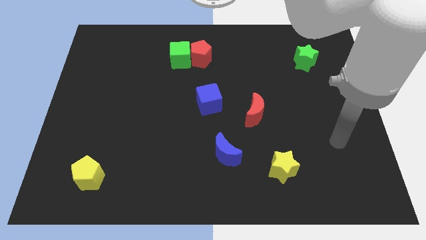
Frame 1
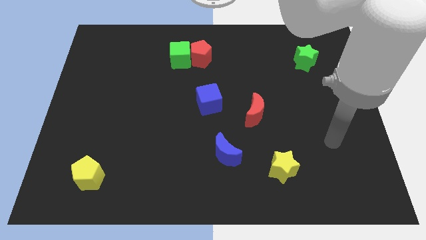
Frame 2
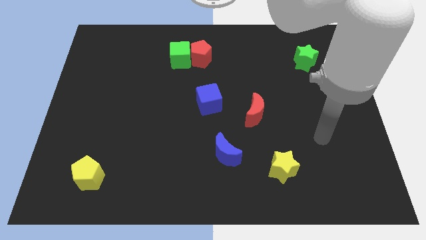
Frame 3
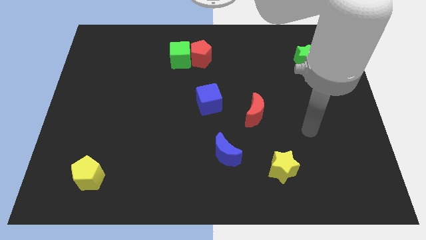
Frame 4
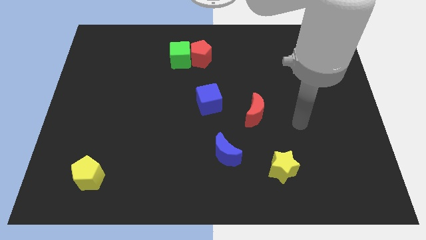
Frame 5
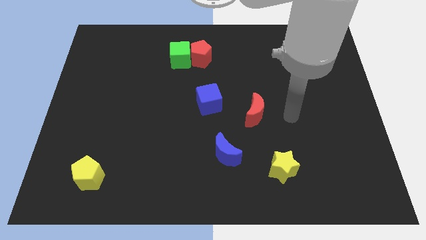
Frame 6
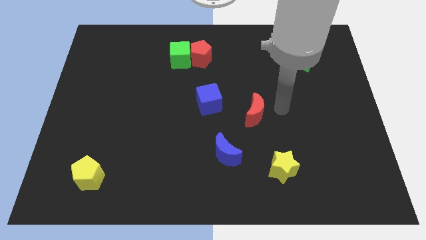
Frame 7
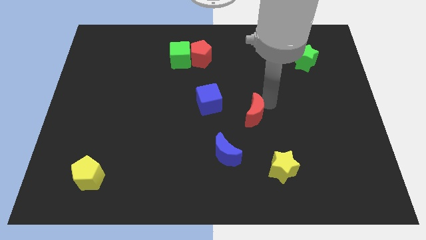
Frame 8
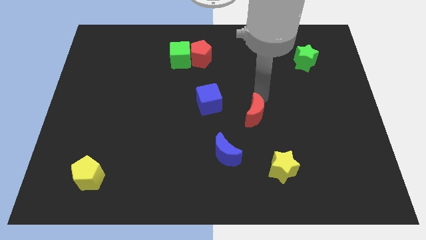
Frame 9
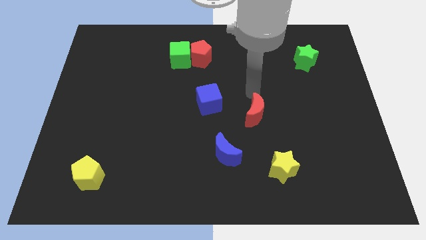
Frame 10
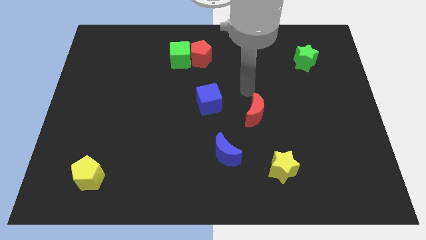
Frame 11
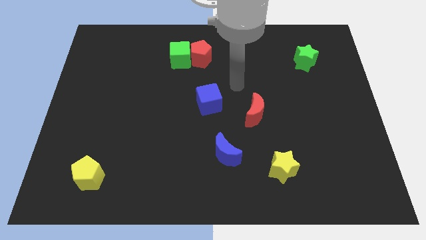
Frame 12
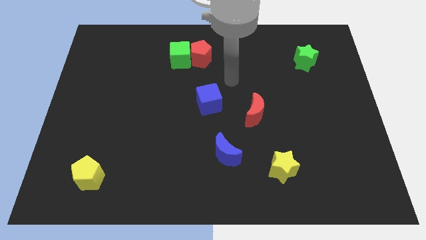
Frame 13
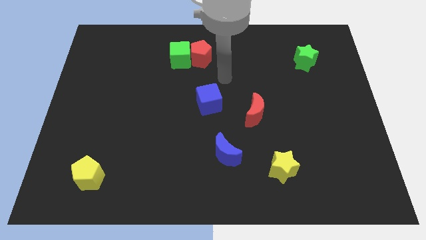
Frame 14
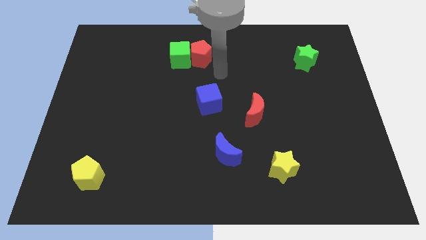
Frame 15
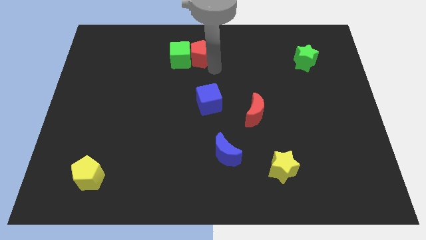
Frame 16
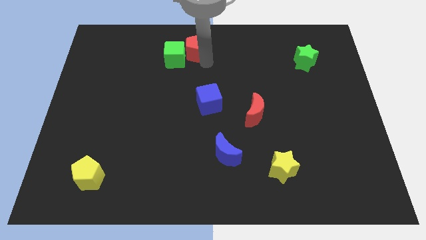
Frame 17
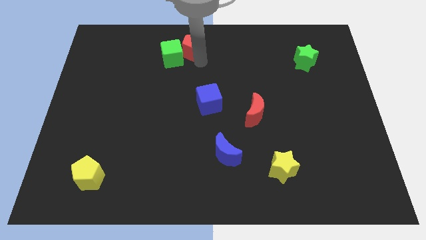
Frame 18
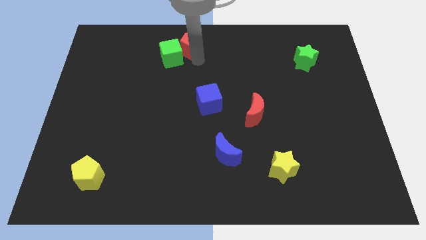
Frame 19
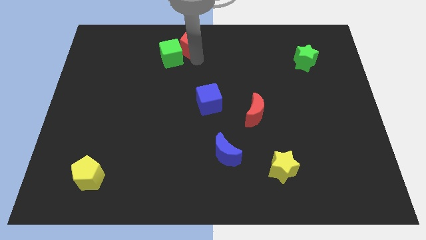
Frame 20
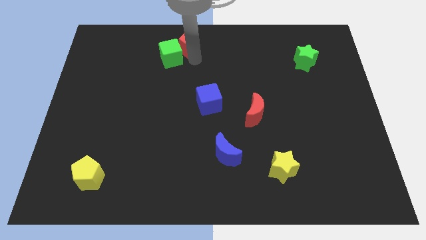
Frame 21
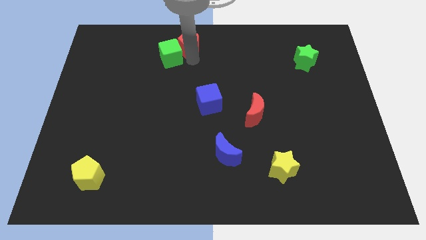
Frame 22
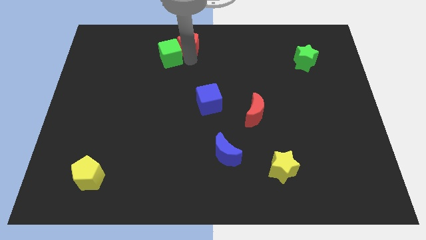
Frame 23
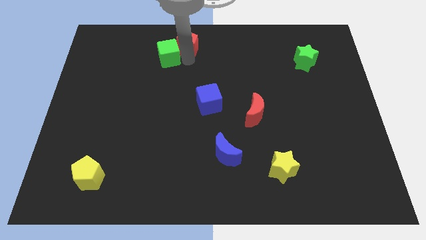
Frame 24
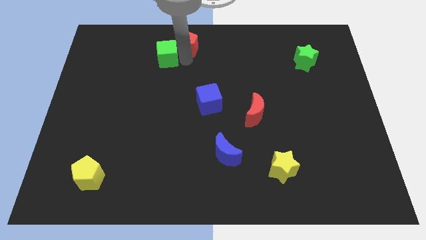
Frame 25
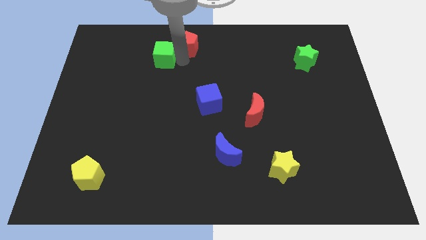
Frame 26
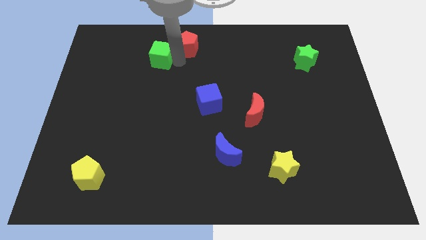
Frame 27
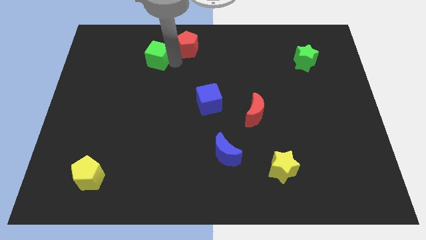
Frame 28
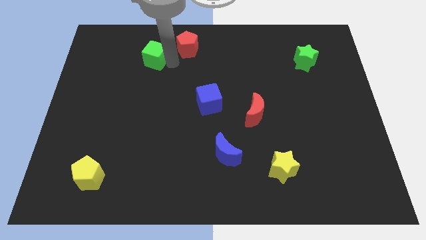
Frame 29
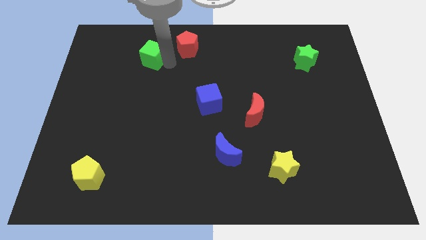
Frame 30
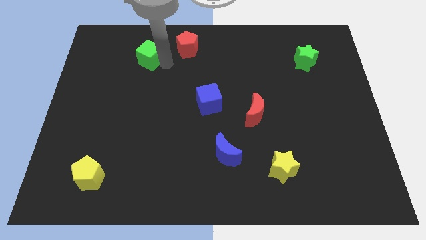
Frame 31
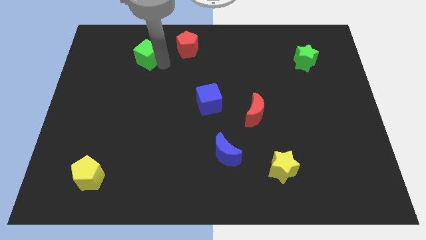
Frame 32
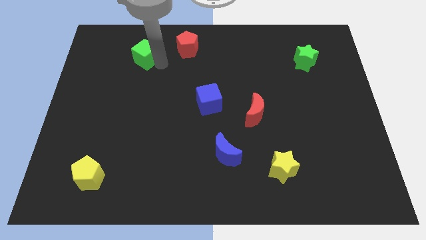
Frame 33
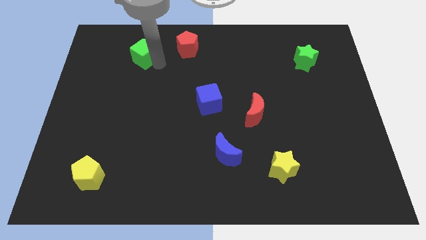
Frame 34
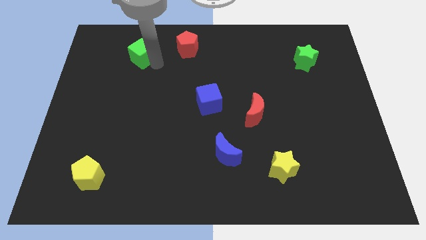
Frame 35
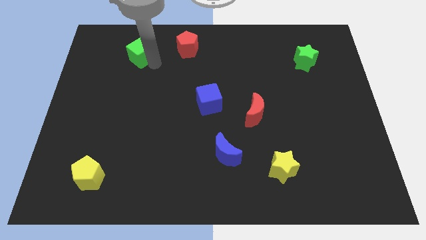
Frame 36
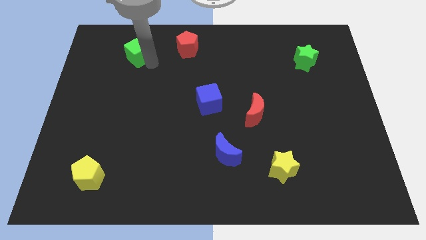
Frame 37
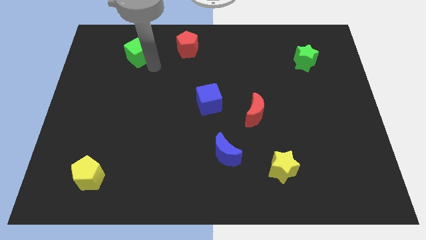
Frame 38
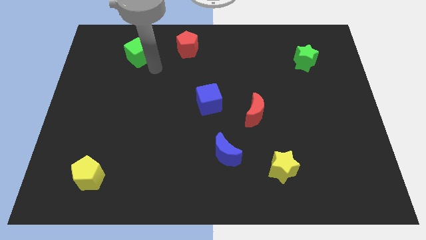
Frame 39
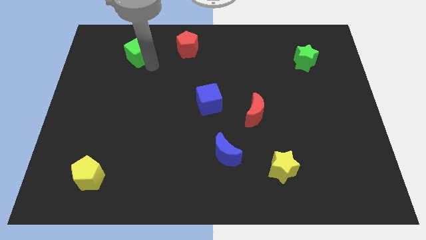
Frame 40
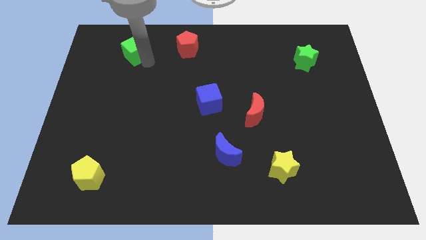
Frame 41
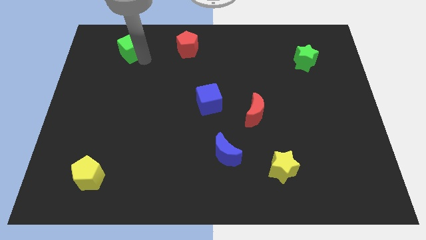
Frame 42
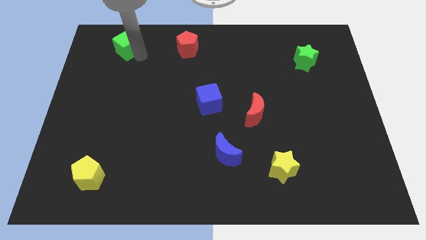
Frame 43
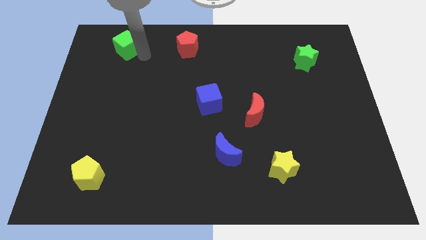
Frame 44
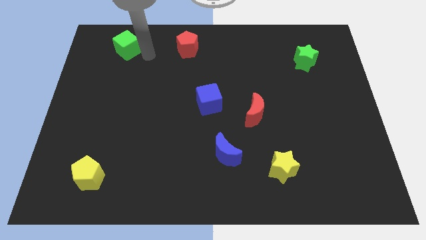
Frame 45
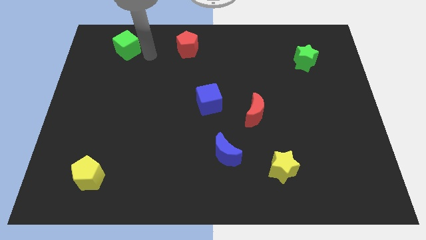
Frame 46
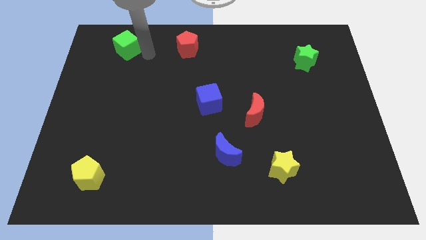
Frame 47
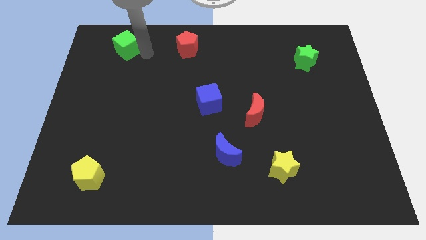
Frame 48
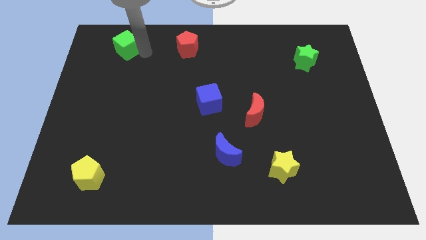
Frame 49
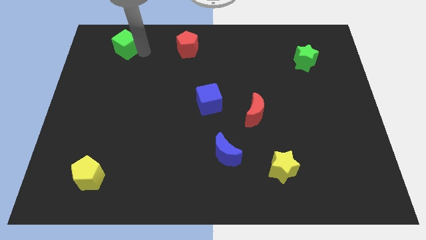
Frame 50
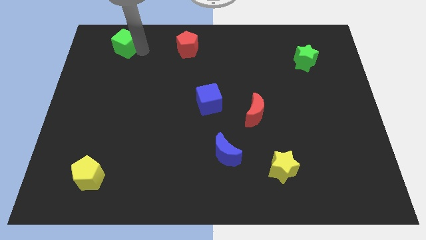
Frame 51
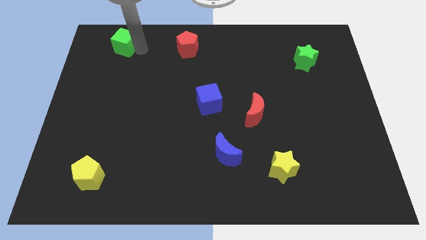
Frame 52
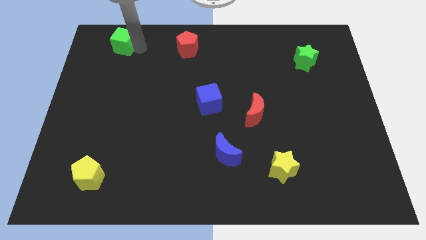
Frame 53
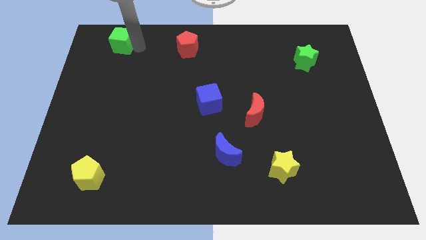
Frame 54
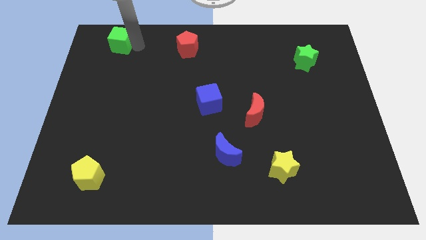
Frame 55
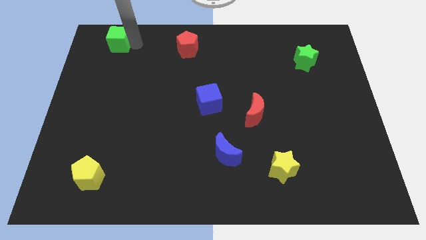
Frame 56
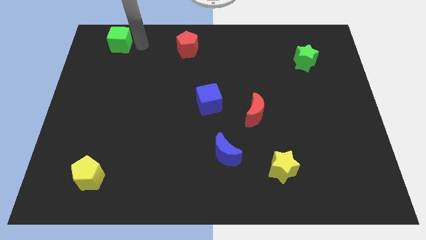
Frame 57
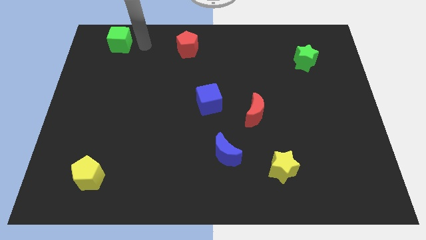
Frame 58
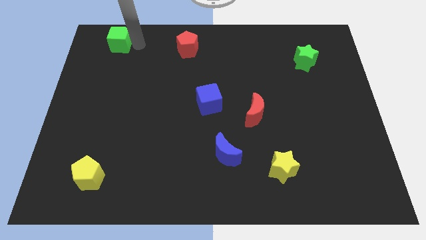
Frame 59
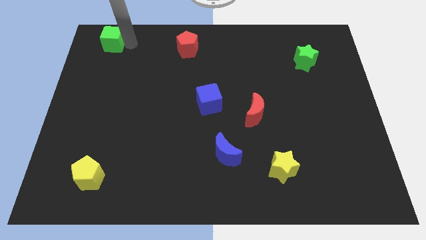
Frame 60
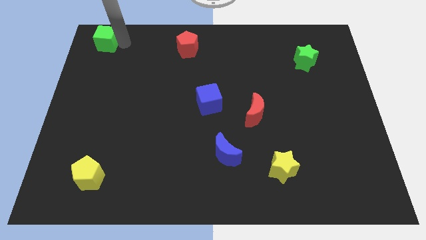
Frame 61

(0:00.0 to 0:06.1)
move the green cube to the top left of the board

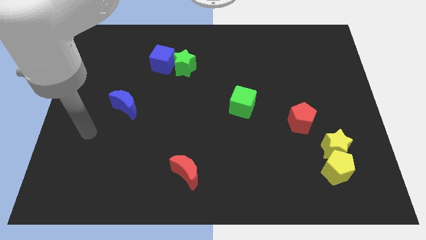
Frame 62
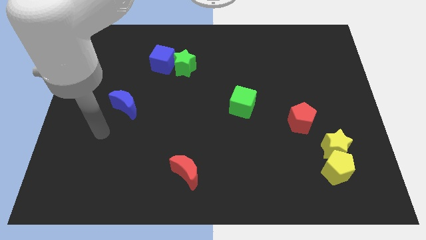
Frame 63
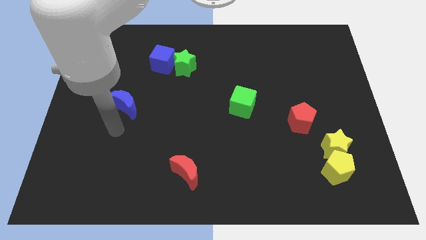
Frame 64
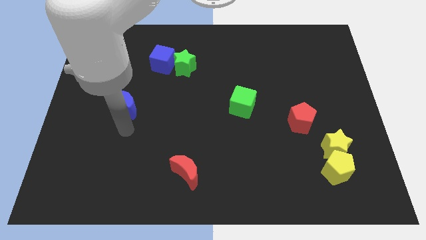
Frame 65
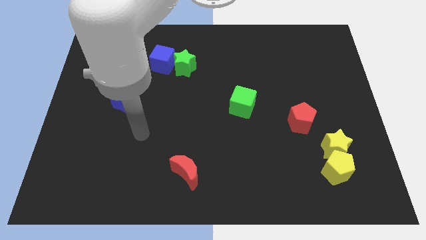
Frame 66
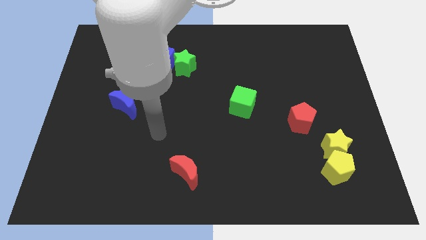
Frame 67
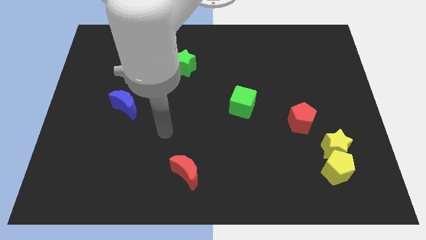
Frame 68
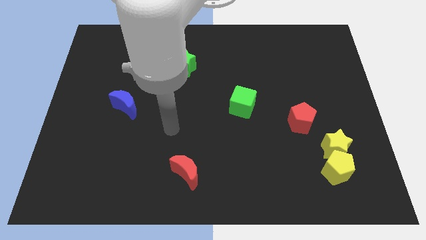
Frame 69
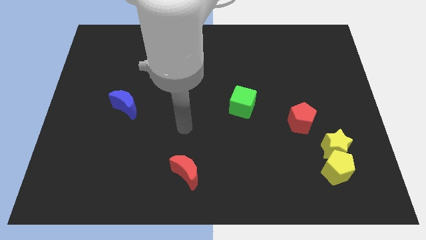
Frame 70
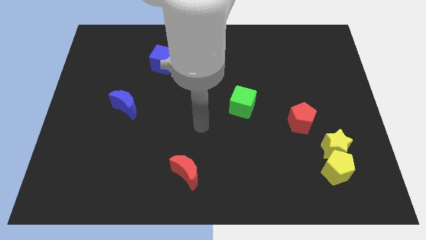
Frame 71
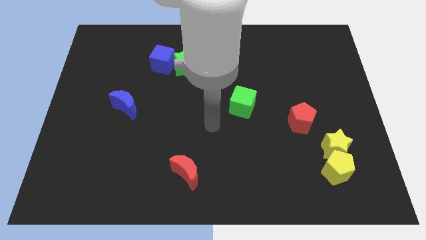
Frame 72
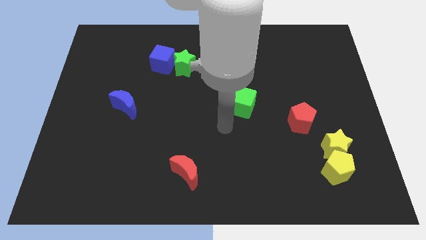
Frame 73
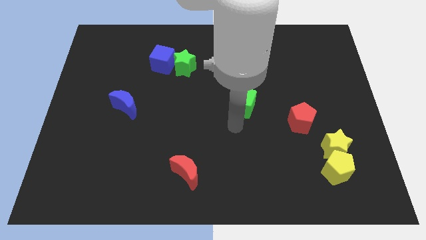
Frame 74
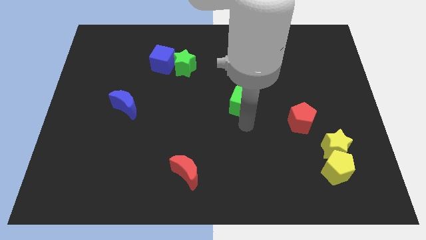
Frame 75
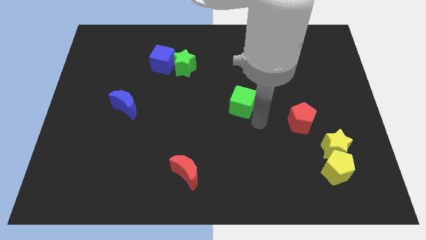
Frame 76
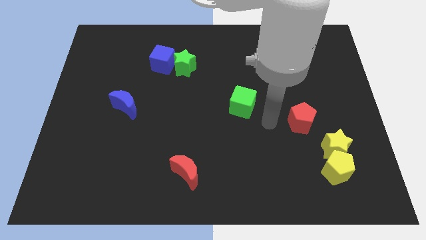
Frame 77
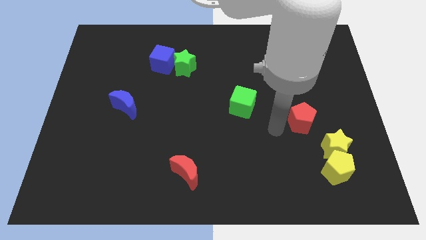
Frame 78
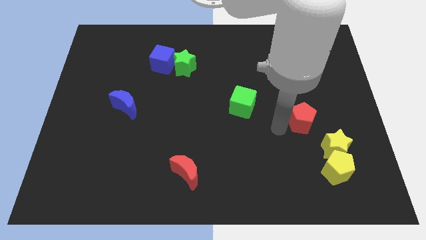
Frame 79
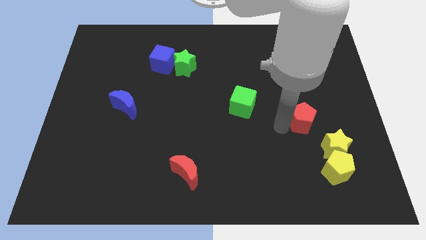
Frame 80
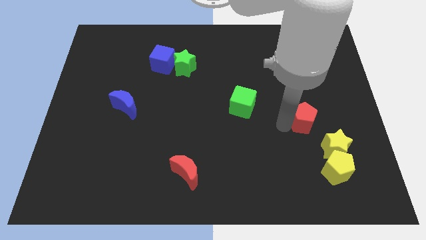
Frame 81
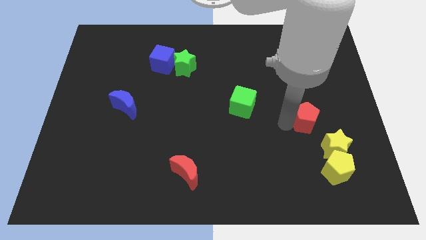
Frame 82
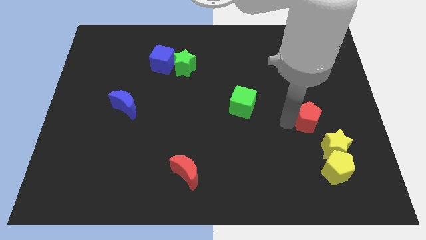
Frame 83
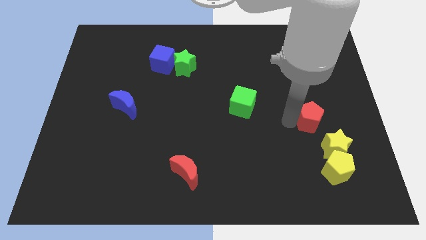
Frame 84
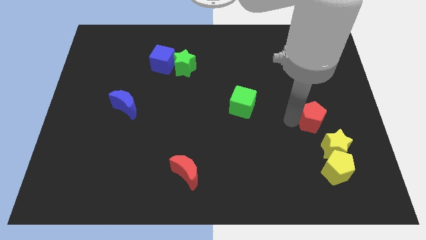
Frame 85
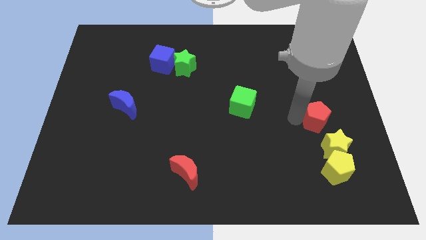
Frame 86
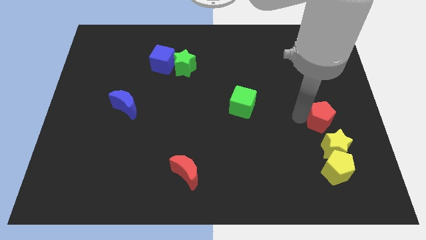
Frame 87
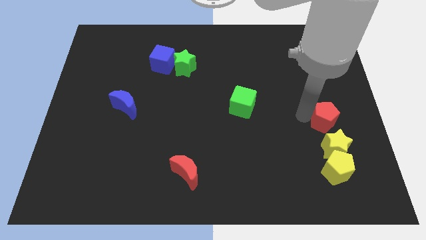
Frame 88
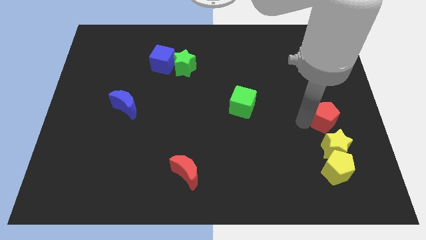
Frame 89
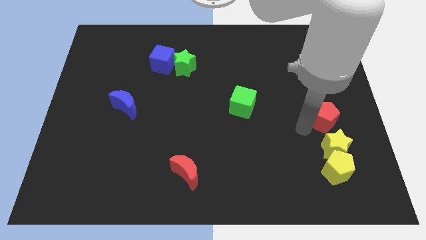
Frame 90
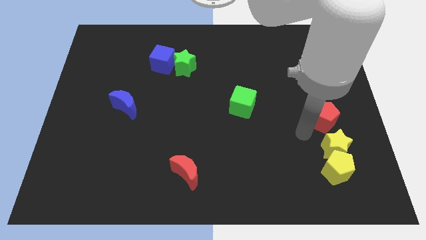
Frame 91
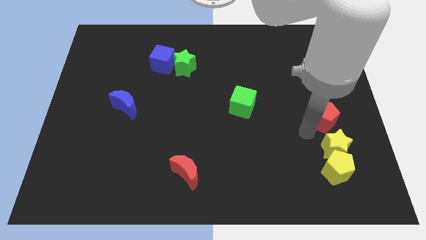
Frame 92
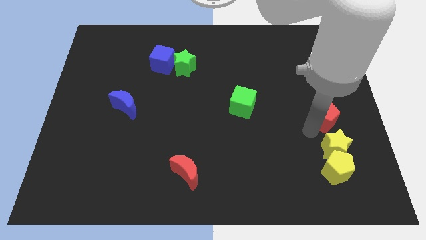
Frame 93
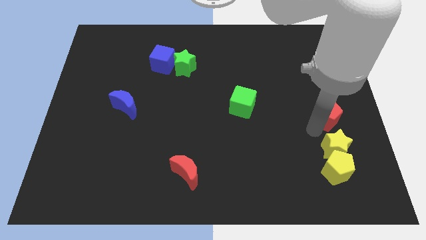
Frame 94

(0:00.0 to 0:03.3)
move the red pentagon to the center right
